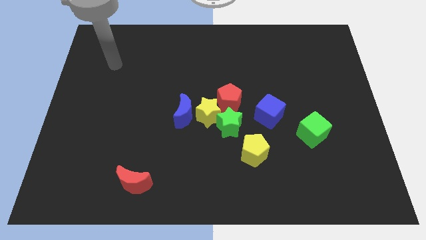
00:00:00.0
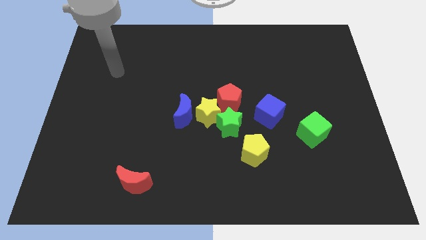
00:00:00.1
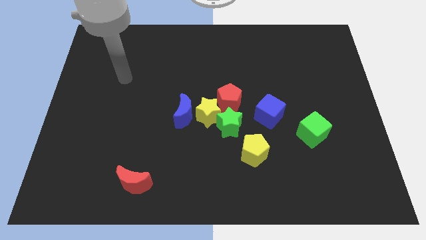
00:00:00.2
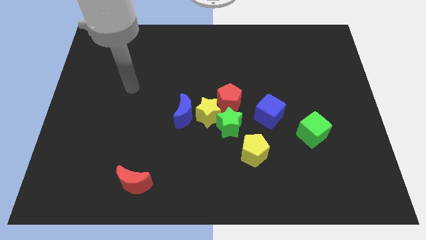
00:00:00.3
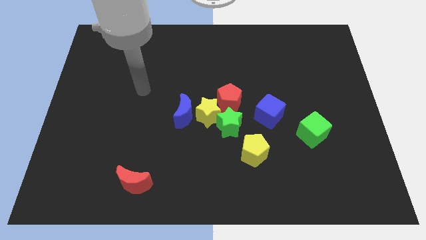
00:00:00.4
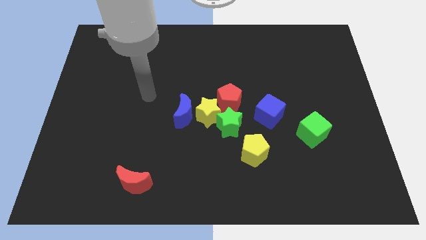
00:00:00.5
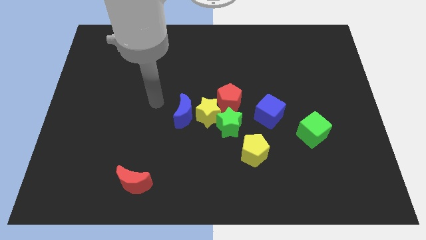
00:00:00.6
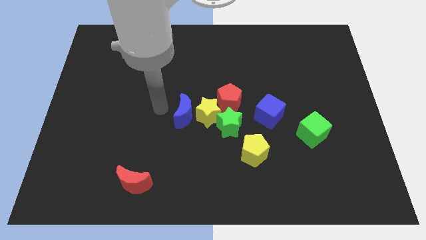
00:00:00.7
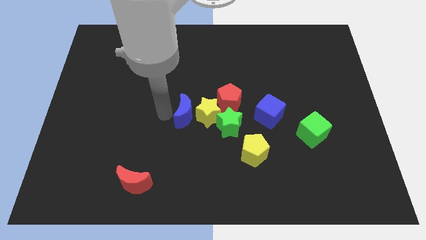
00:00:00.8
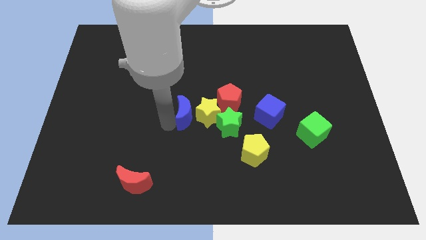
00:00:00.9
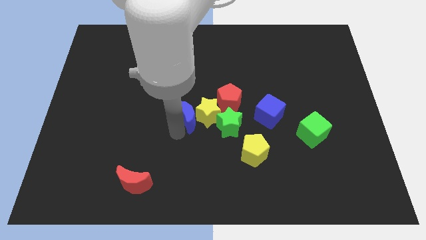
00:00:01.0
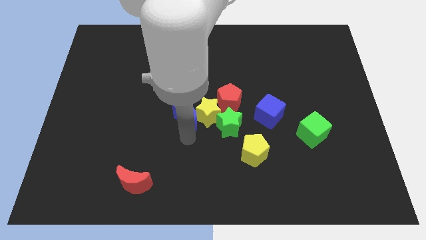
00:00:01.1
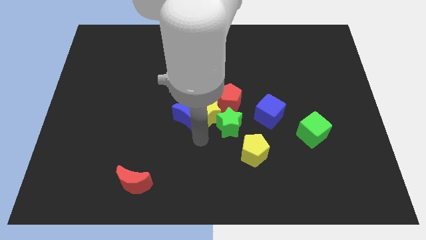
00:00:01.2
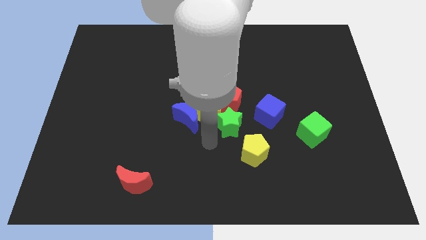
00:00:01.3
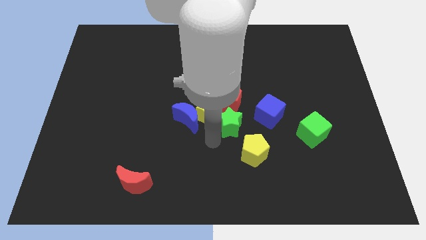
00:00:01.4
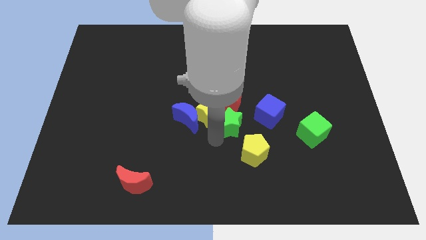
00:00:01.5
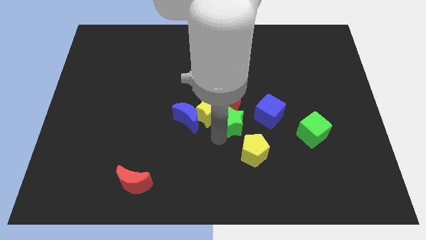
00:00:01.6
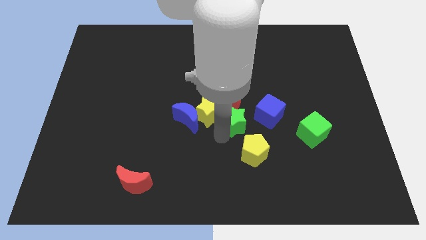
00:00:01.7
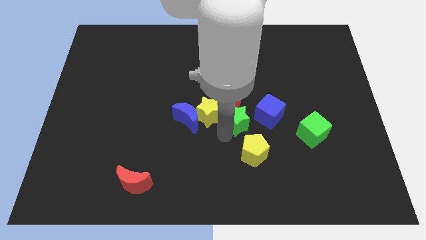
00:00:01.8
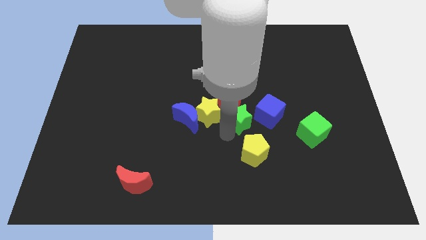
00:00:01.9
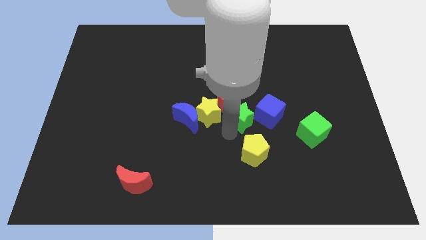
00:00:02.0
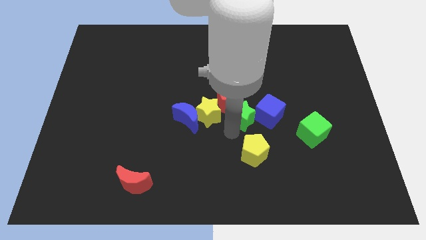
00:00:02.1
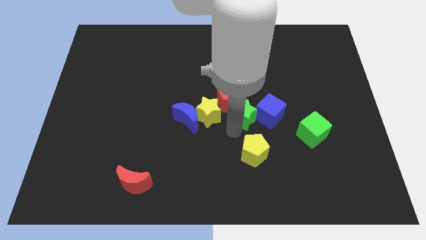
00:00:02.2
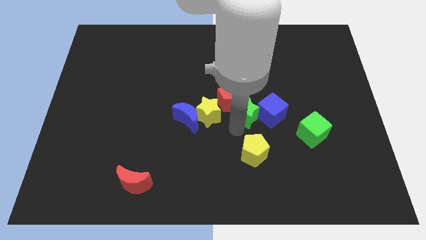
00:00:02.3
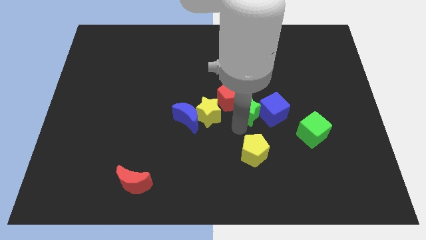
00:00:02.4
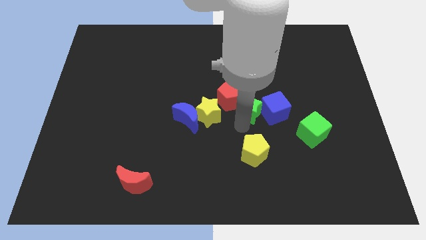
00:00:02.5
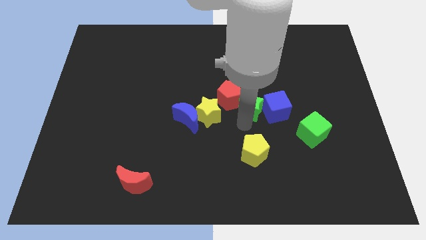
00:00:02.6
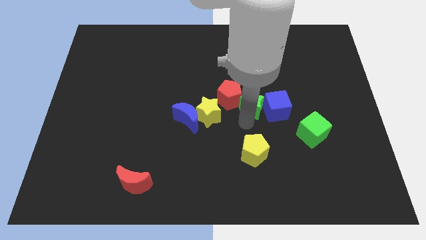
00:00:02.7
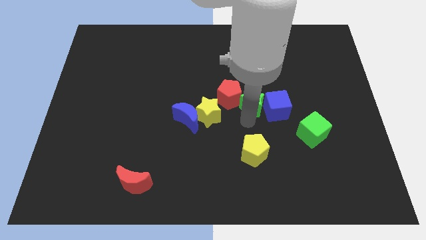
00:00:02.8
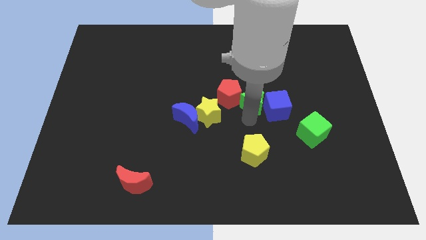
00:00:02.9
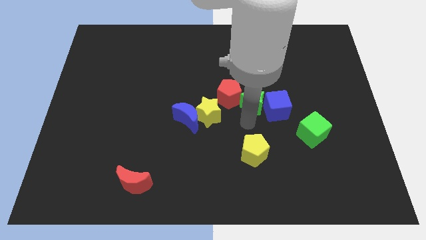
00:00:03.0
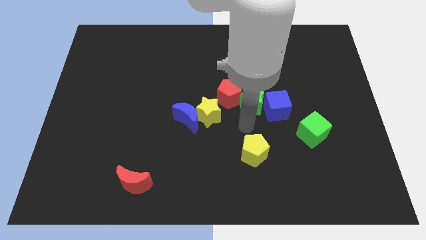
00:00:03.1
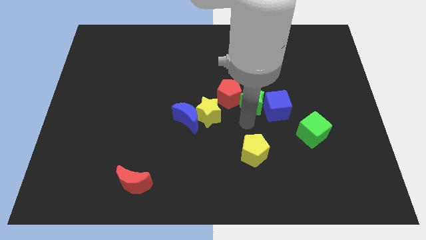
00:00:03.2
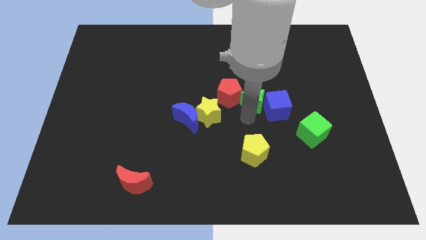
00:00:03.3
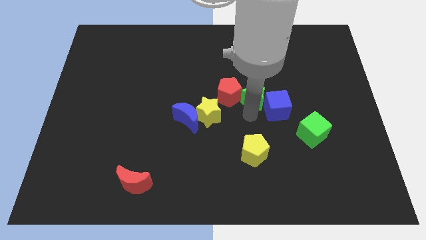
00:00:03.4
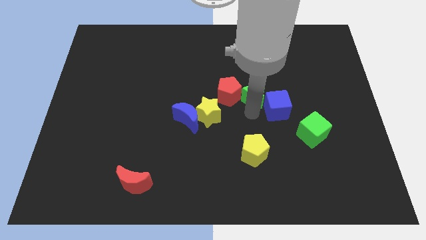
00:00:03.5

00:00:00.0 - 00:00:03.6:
slightly move the green star upwards

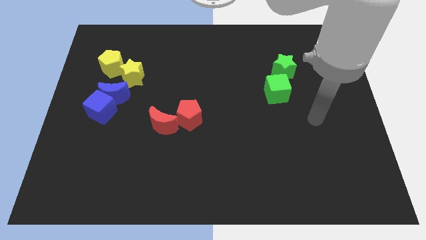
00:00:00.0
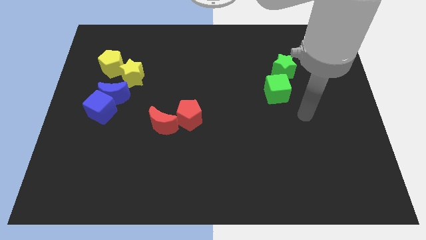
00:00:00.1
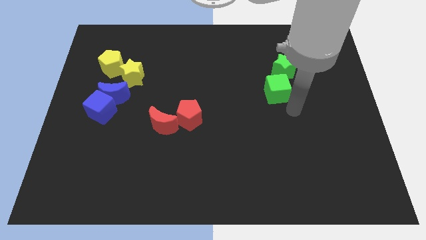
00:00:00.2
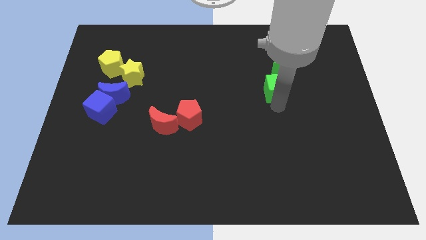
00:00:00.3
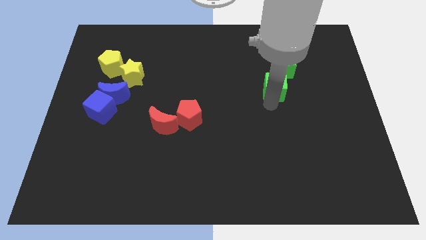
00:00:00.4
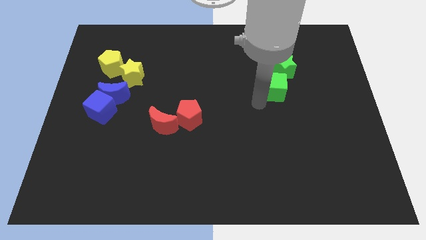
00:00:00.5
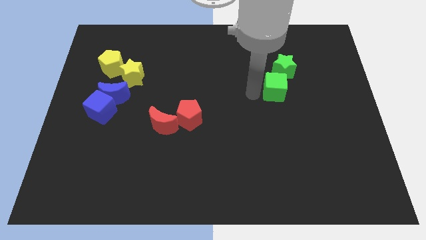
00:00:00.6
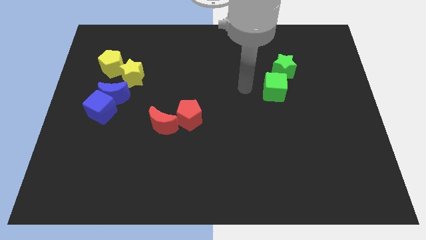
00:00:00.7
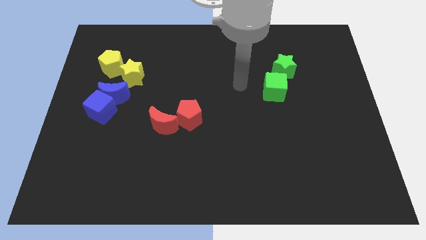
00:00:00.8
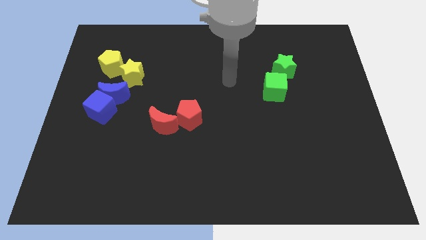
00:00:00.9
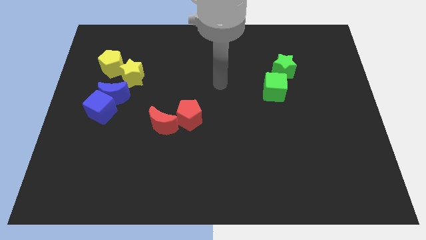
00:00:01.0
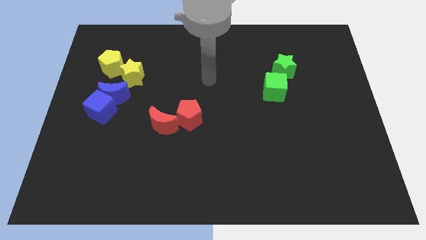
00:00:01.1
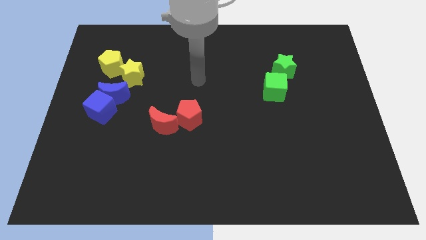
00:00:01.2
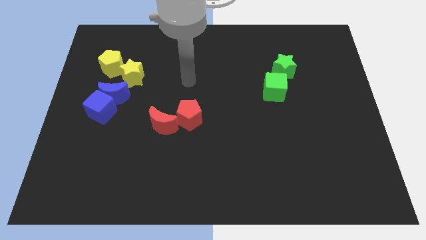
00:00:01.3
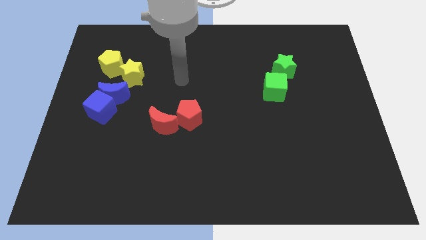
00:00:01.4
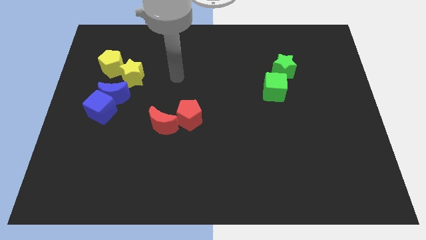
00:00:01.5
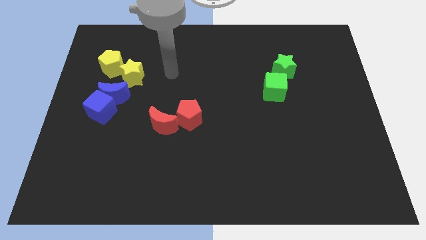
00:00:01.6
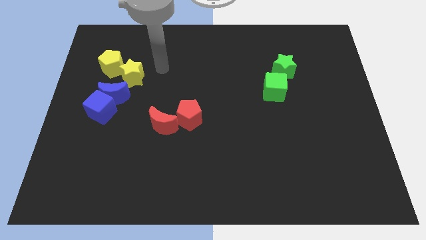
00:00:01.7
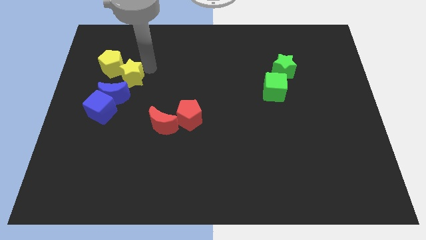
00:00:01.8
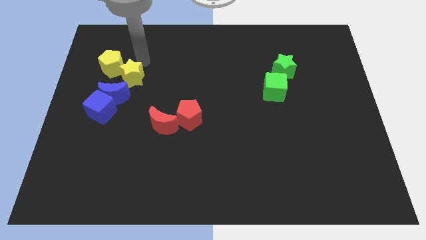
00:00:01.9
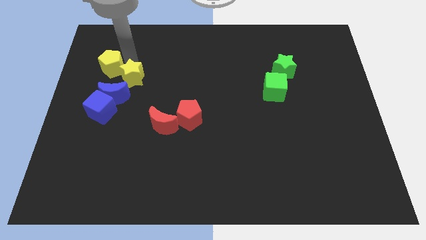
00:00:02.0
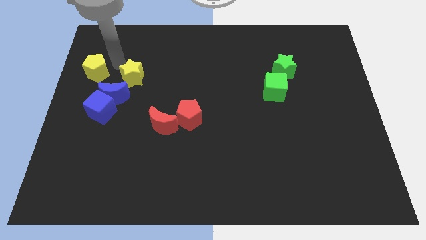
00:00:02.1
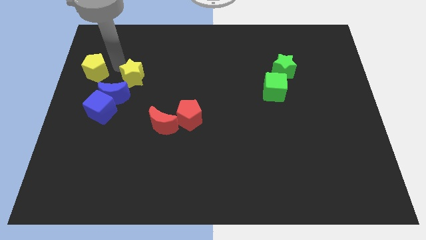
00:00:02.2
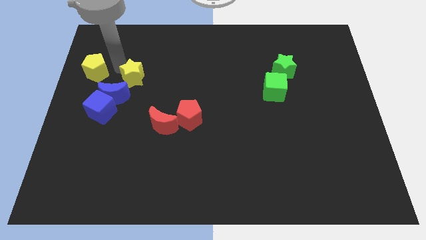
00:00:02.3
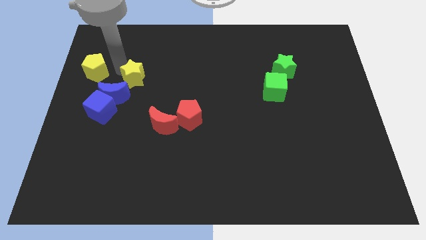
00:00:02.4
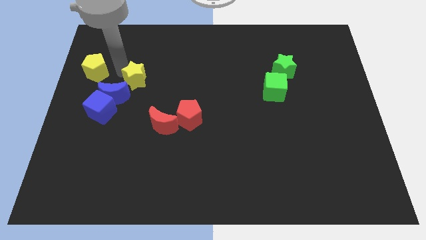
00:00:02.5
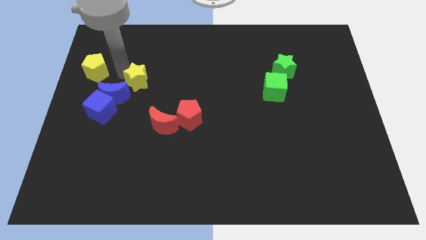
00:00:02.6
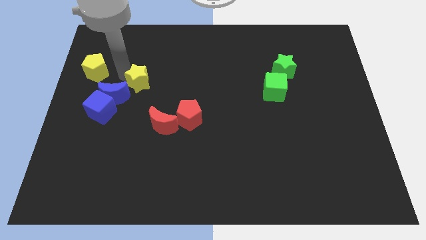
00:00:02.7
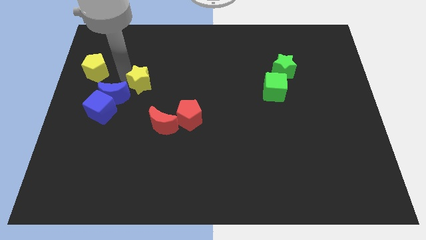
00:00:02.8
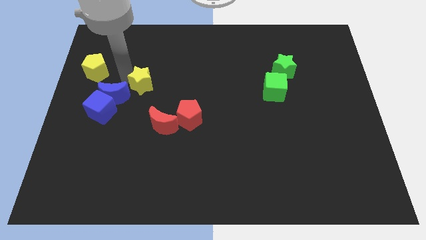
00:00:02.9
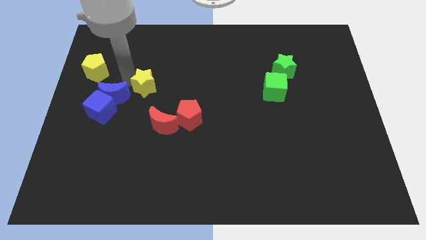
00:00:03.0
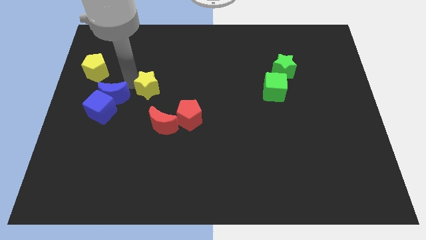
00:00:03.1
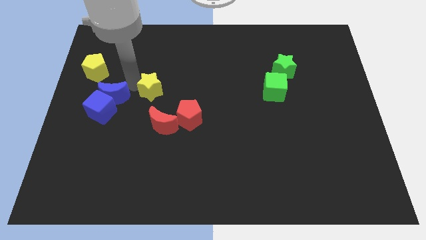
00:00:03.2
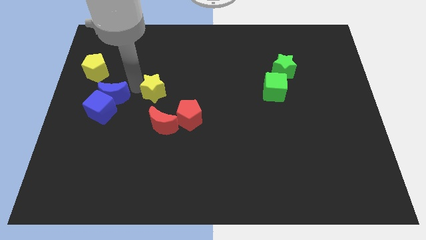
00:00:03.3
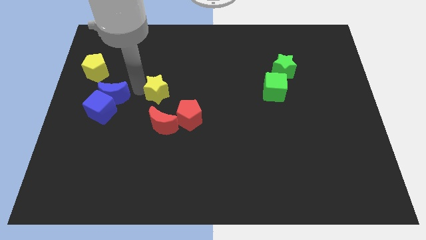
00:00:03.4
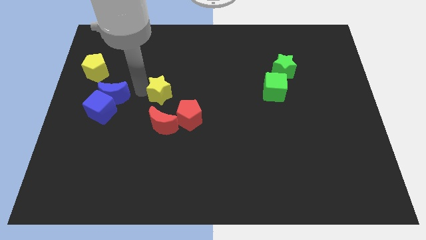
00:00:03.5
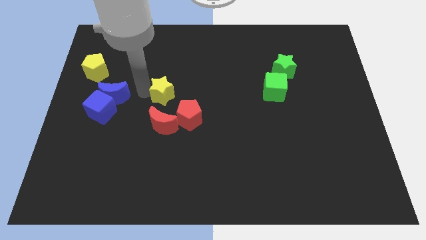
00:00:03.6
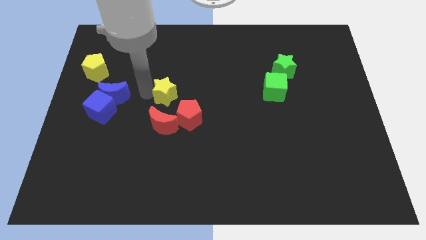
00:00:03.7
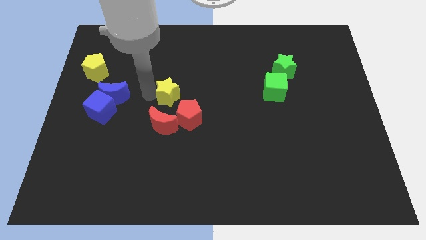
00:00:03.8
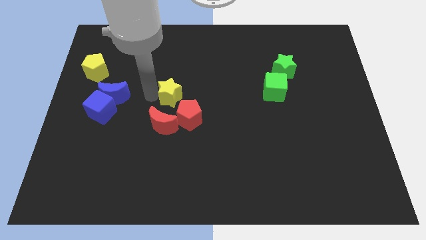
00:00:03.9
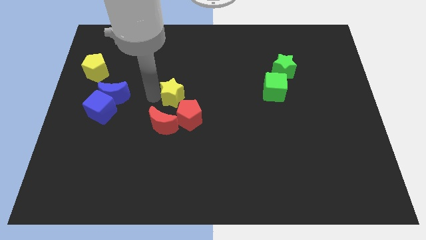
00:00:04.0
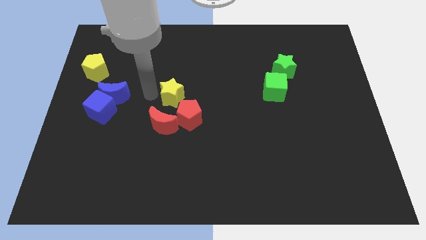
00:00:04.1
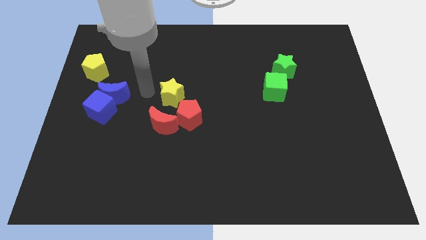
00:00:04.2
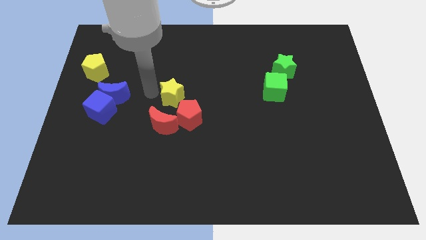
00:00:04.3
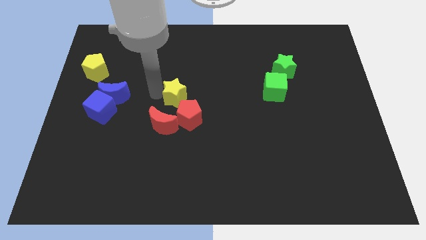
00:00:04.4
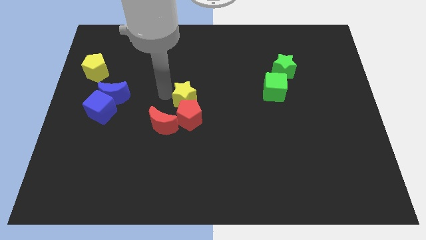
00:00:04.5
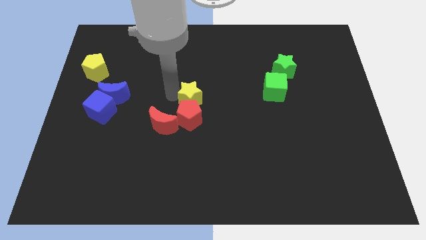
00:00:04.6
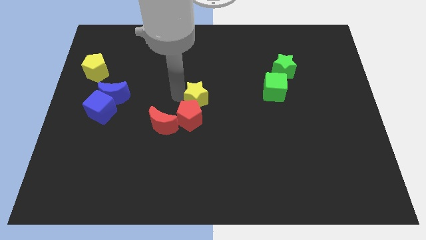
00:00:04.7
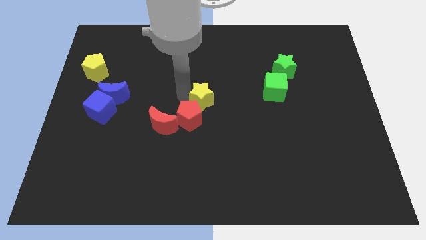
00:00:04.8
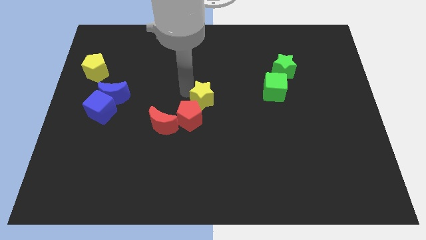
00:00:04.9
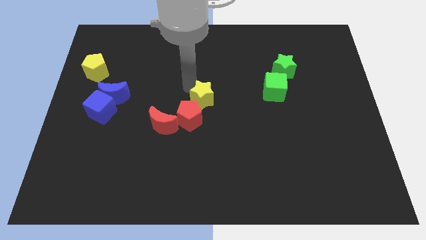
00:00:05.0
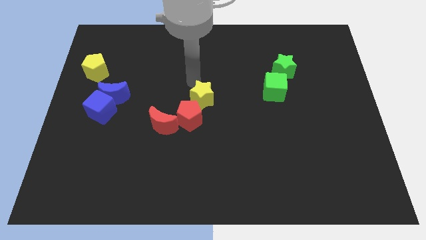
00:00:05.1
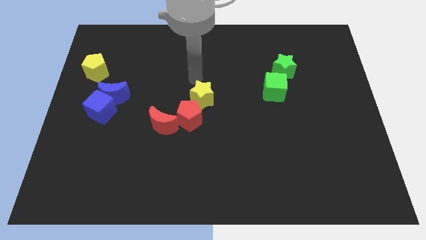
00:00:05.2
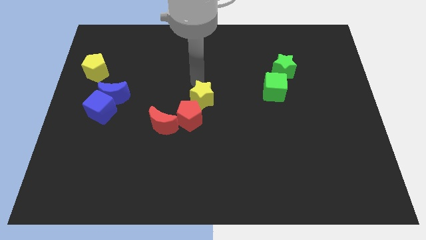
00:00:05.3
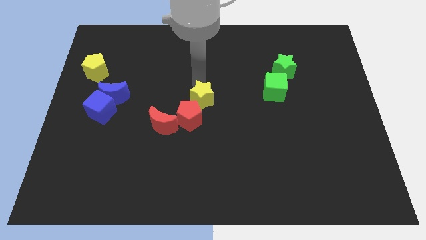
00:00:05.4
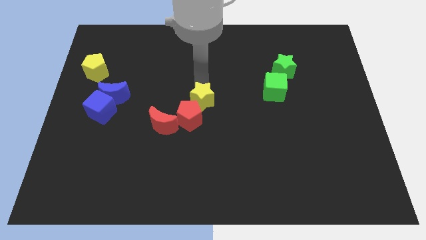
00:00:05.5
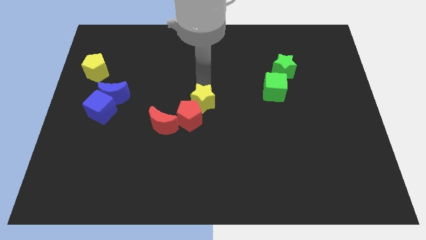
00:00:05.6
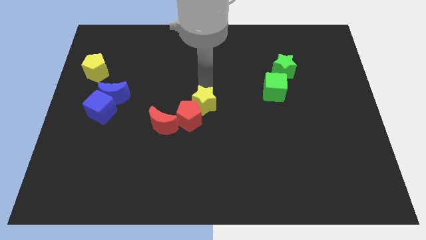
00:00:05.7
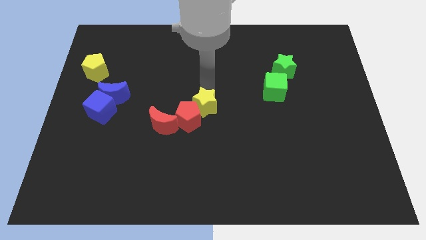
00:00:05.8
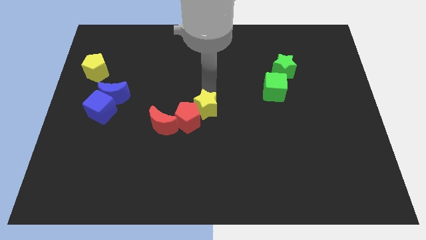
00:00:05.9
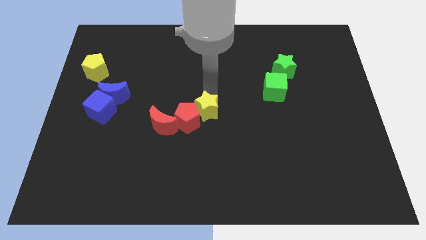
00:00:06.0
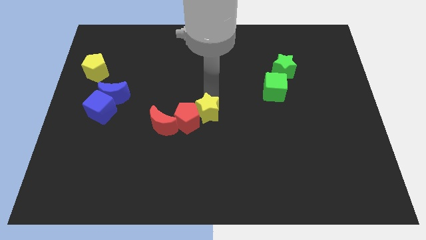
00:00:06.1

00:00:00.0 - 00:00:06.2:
slide the yellow star diagonally downwards and right
